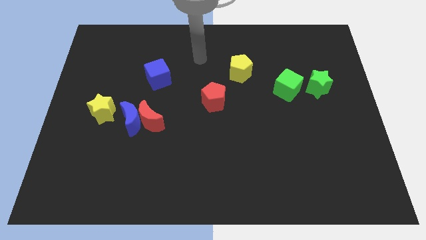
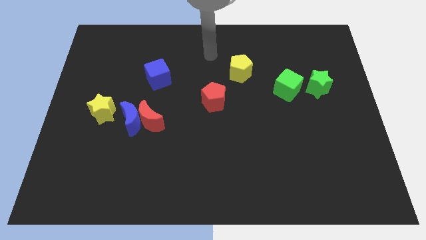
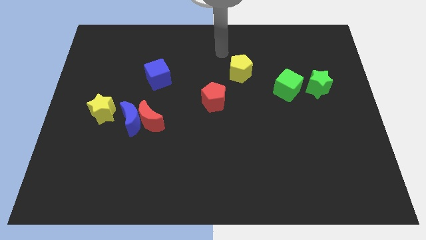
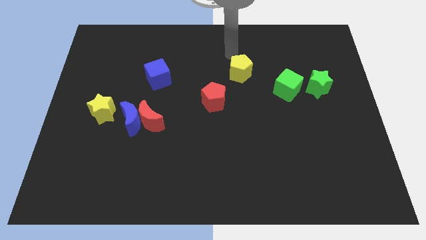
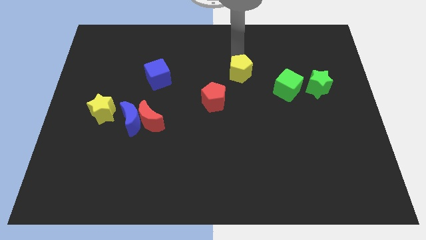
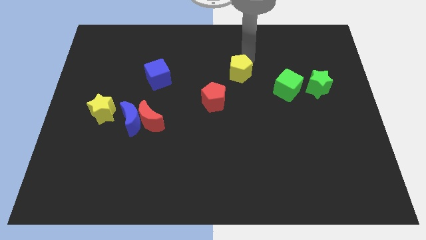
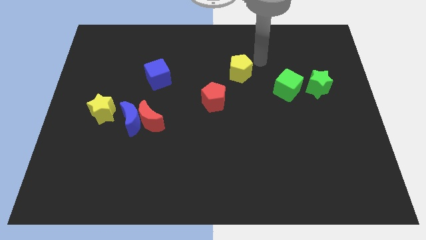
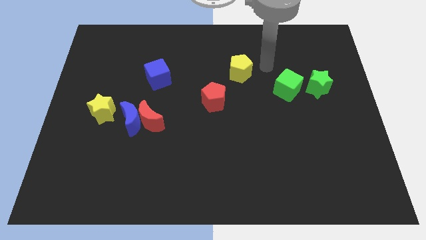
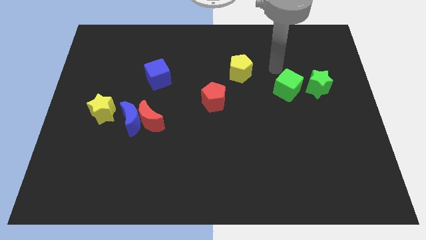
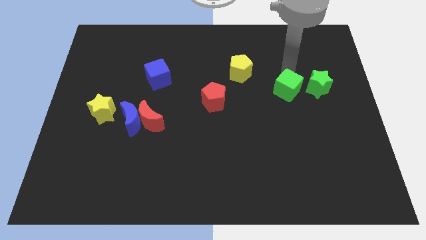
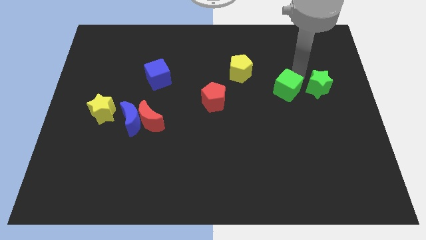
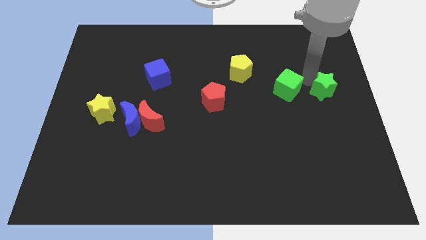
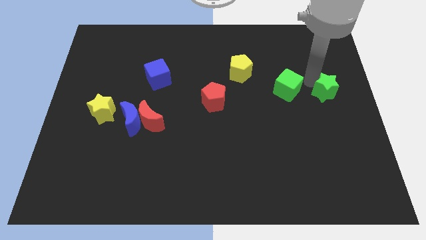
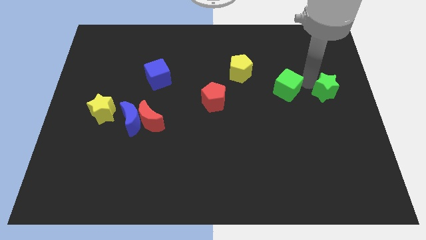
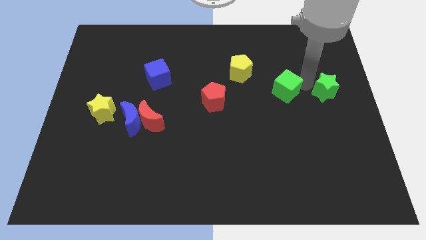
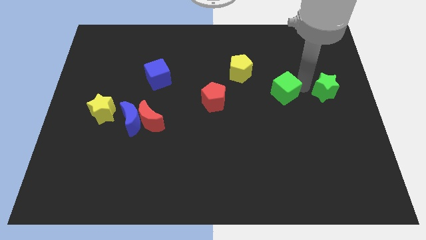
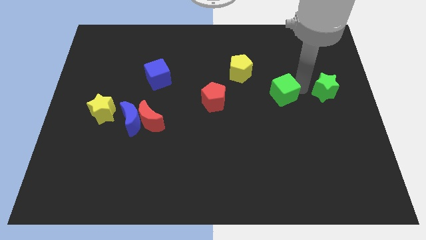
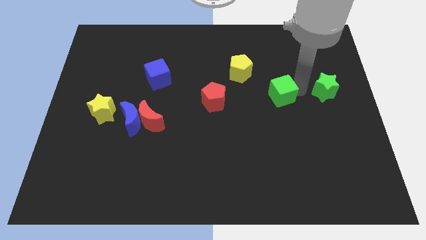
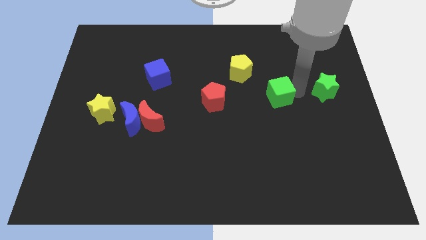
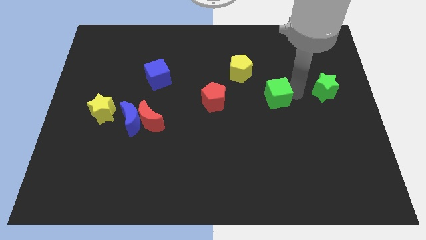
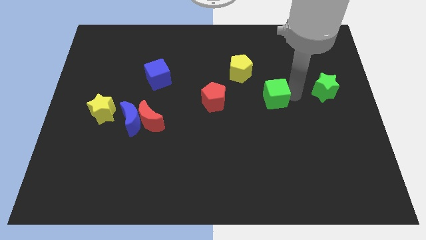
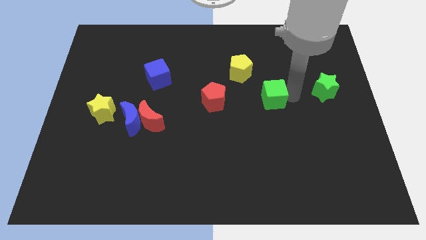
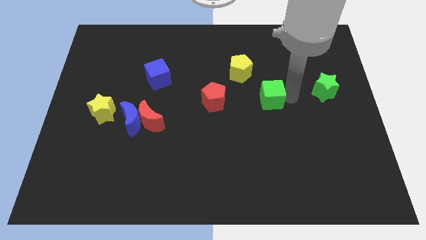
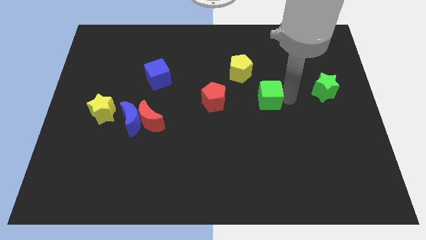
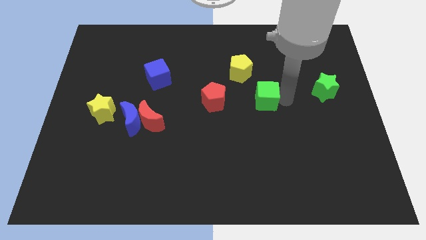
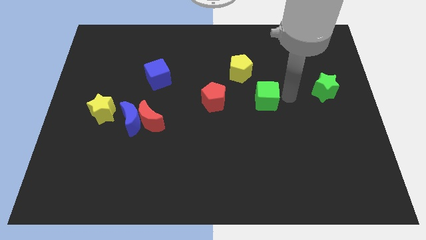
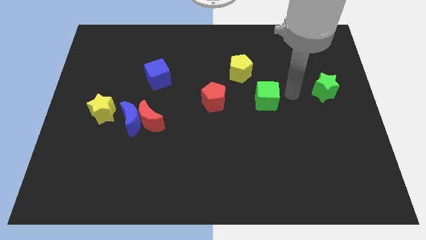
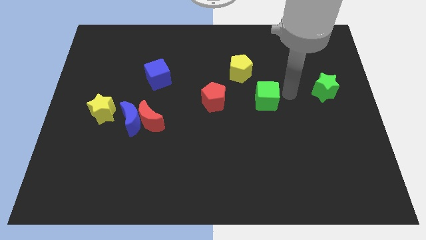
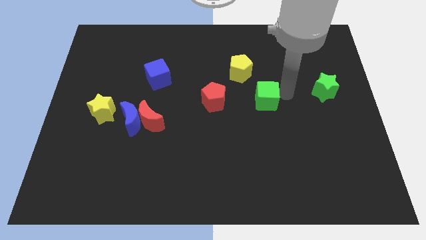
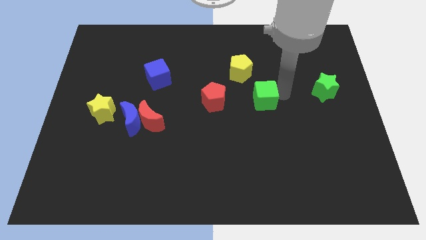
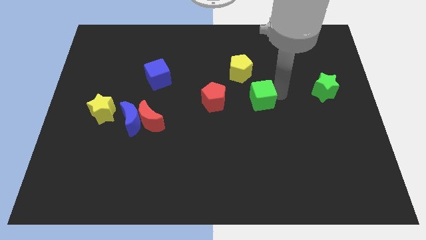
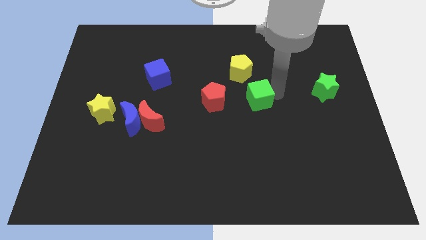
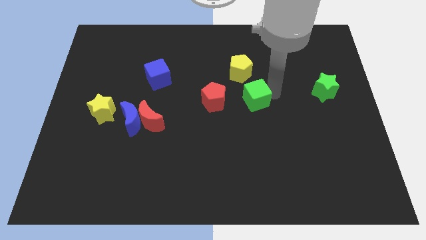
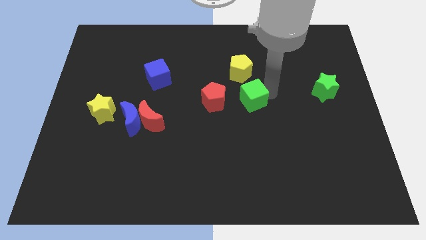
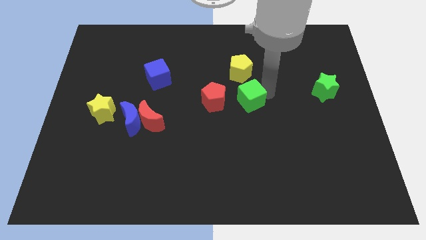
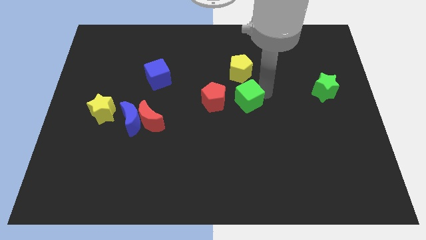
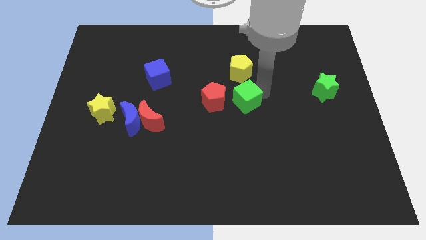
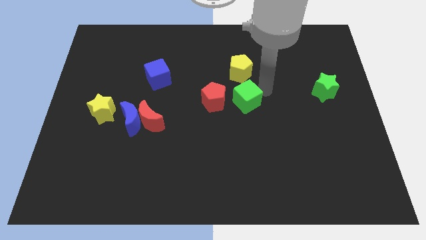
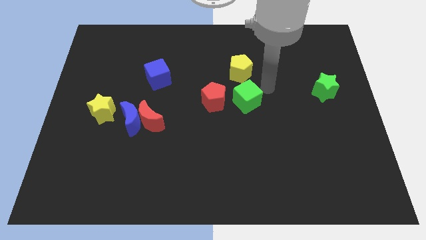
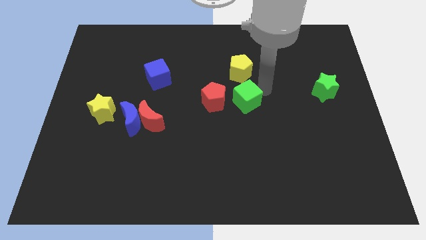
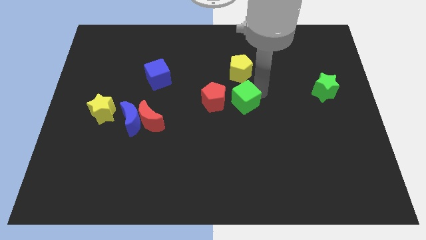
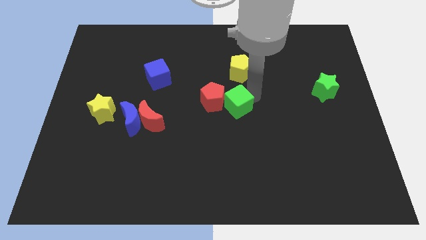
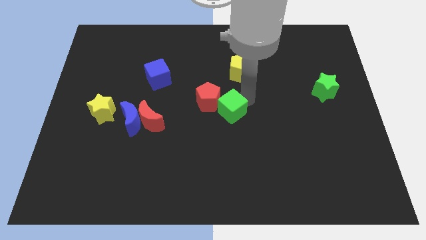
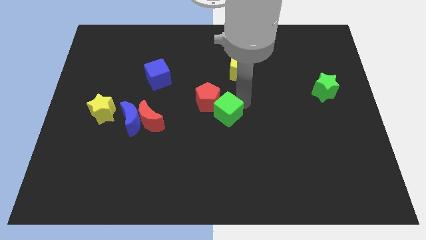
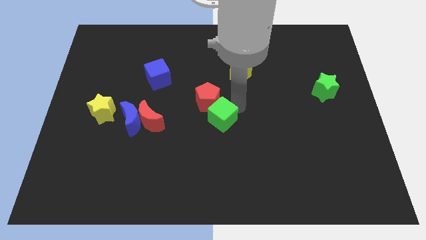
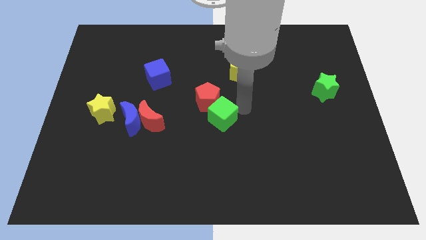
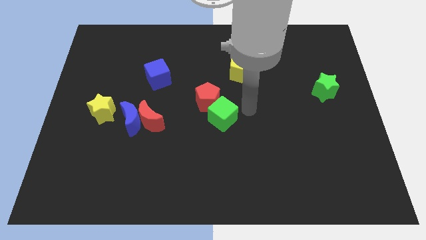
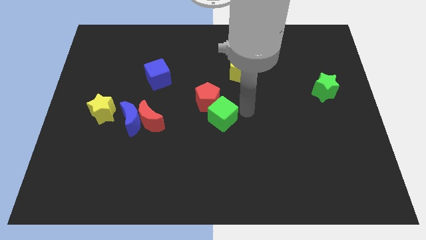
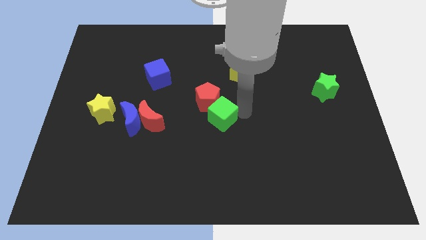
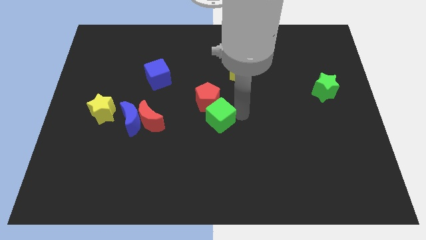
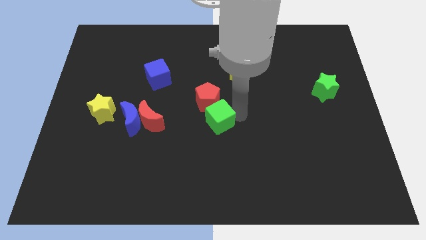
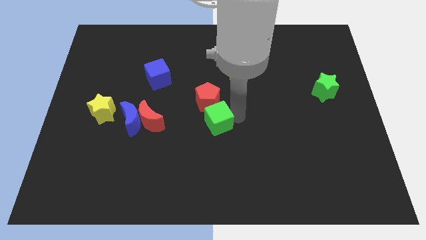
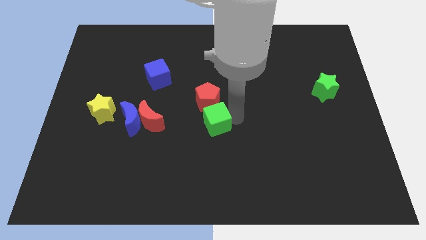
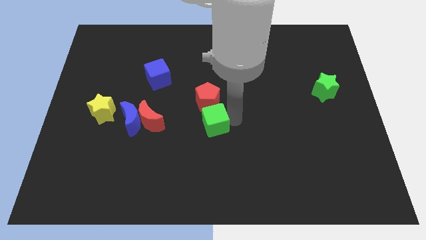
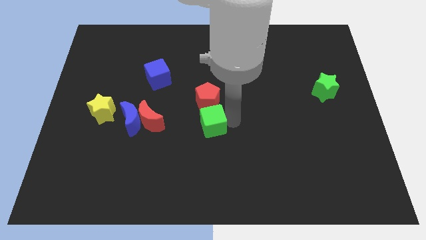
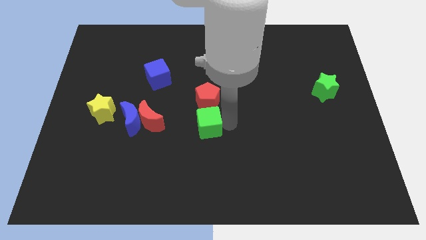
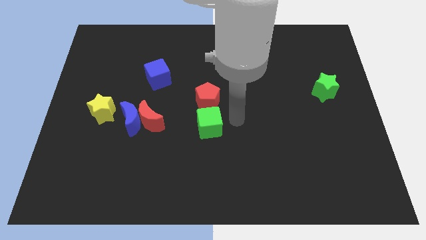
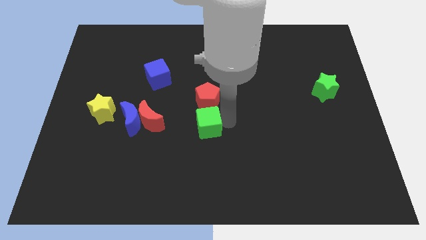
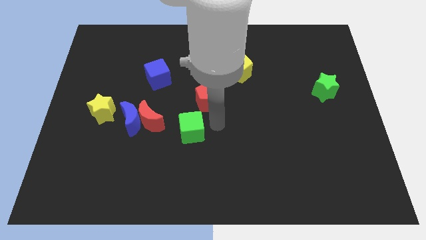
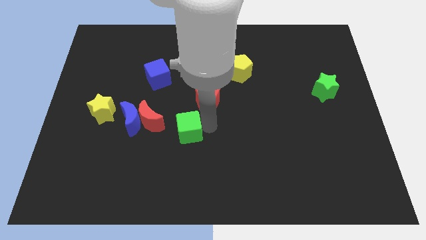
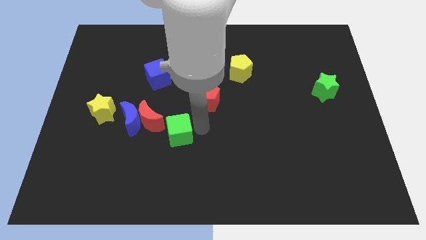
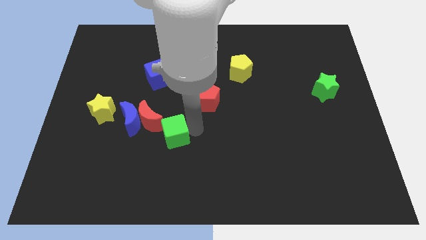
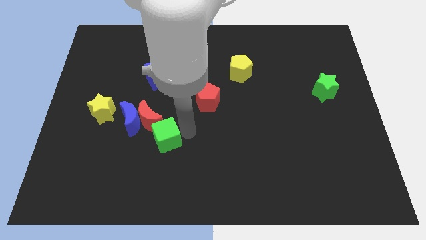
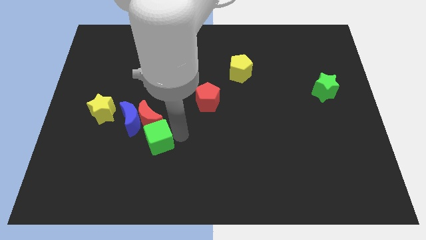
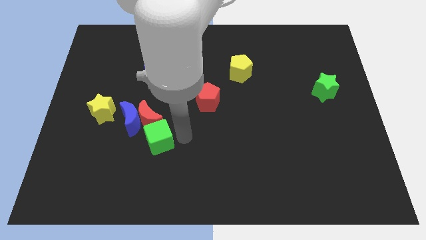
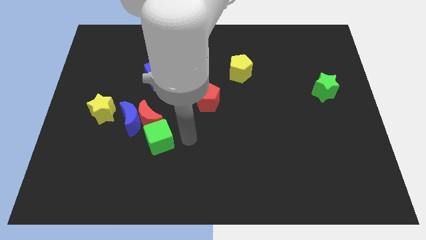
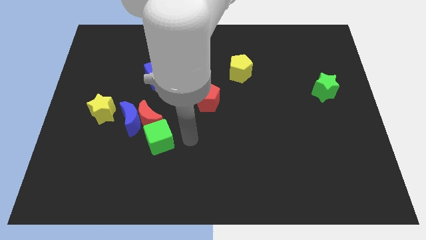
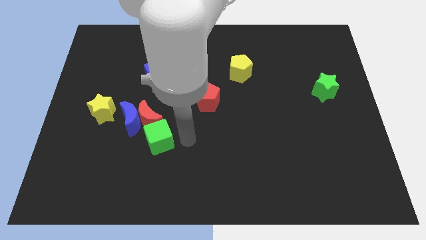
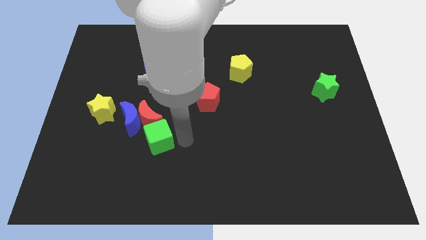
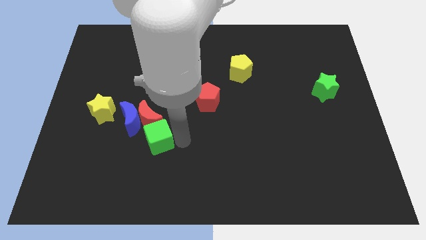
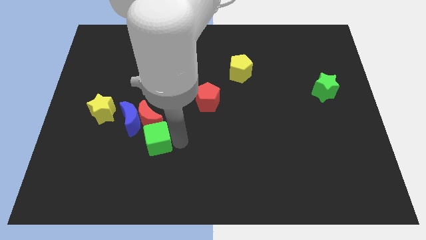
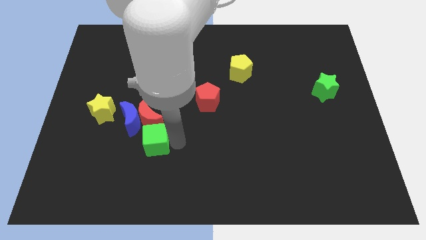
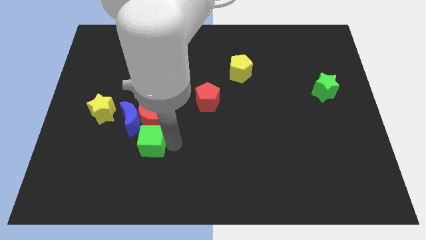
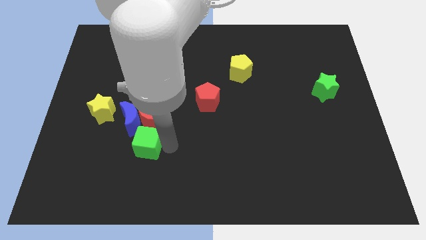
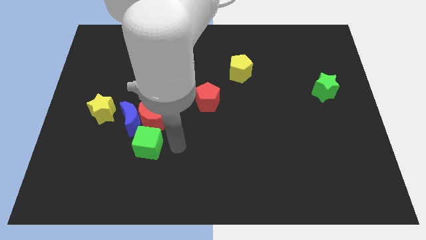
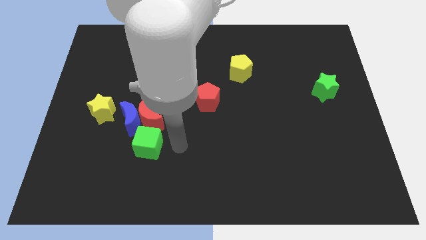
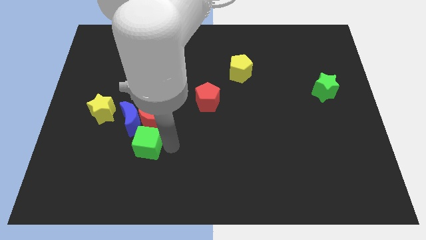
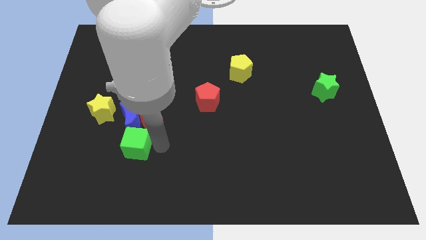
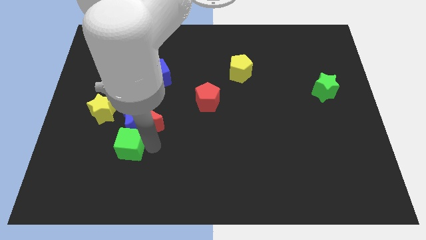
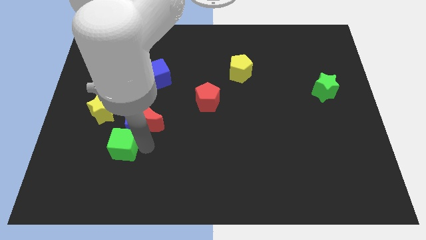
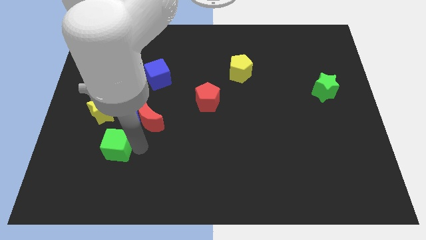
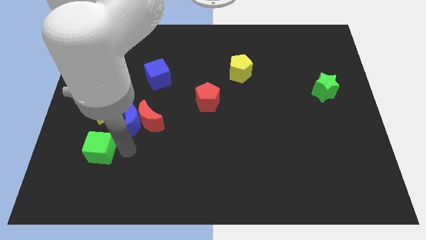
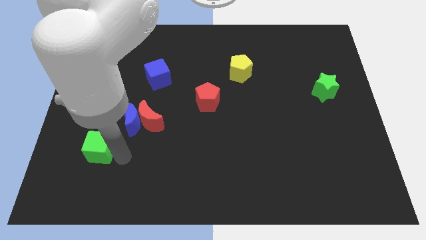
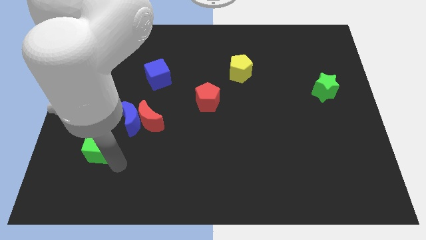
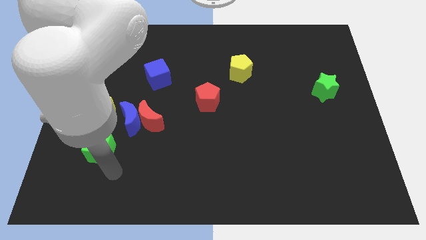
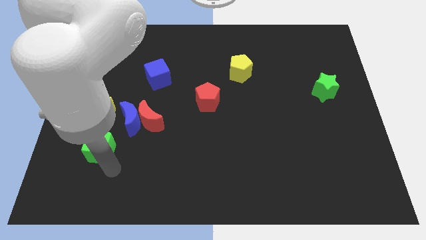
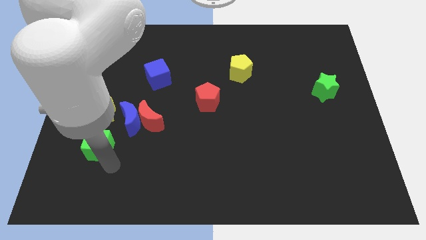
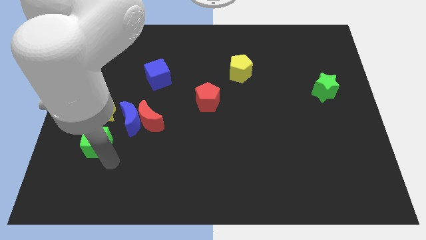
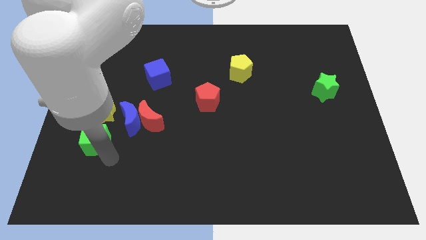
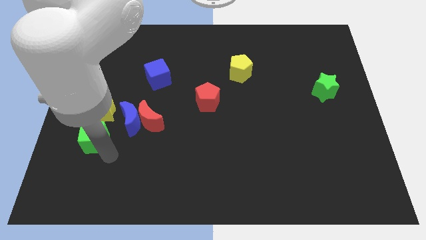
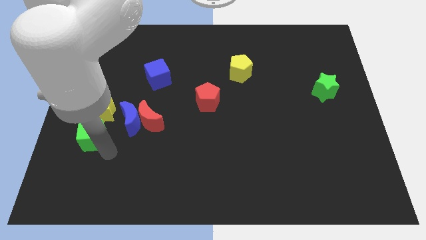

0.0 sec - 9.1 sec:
put the green cube just left of the blue moon
